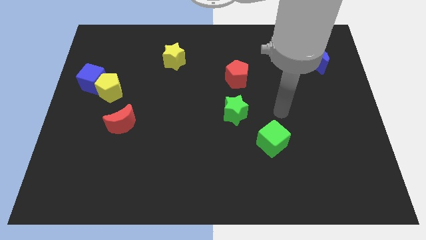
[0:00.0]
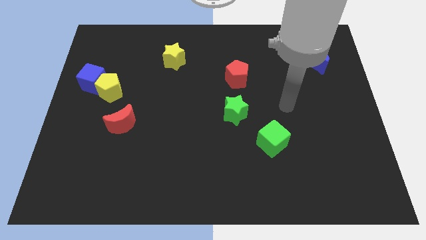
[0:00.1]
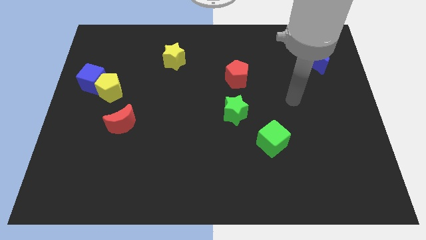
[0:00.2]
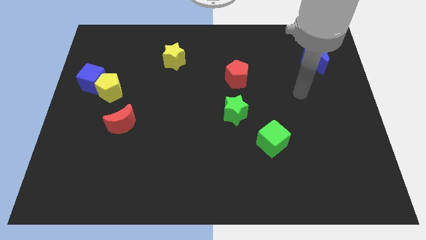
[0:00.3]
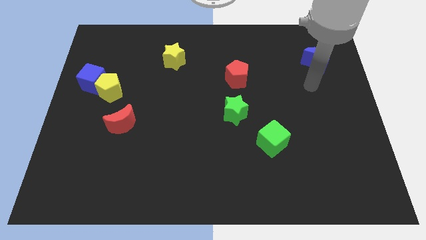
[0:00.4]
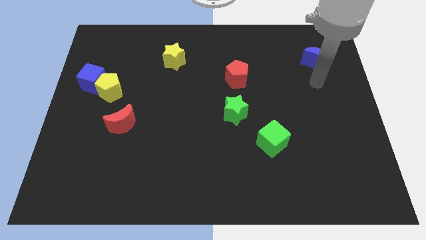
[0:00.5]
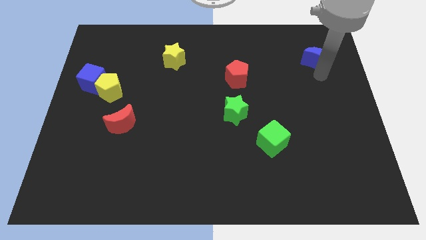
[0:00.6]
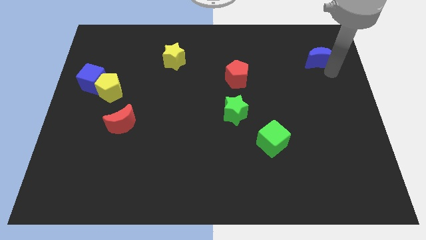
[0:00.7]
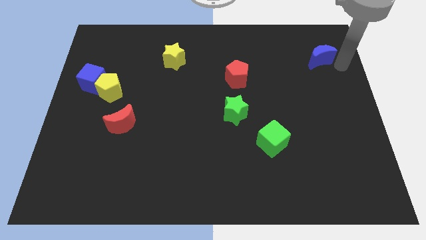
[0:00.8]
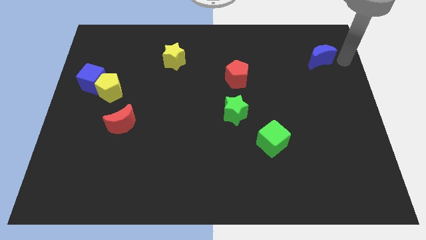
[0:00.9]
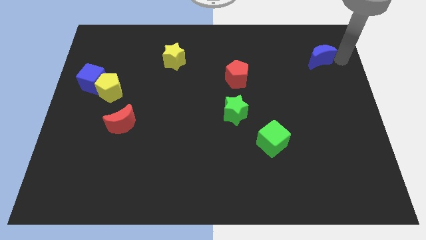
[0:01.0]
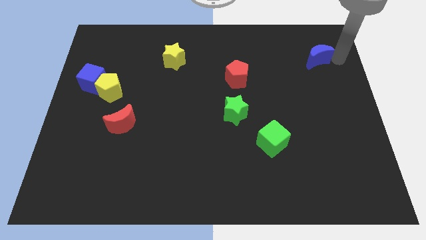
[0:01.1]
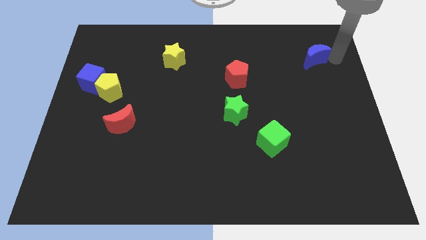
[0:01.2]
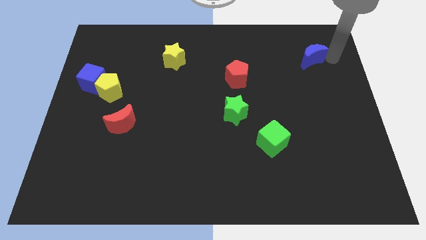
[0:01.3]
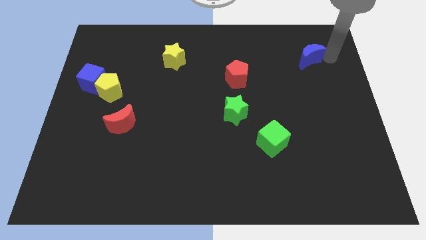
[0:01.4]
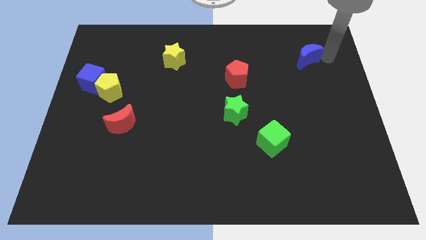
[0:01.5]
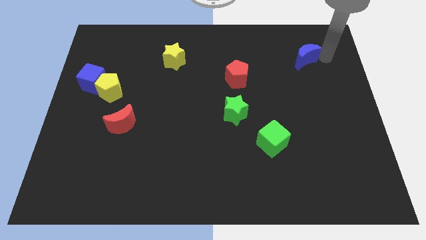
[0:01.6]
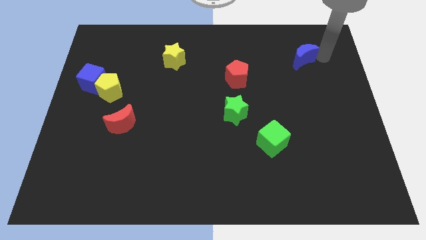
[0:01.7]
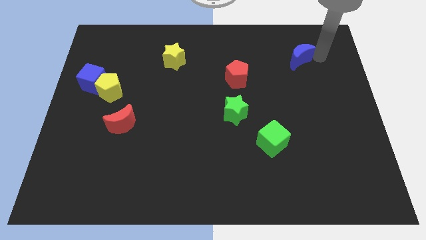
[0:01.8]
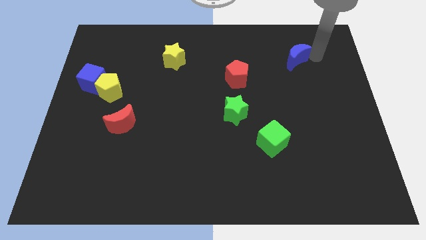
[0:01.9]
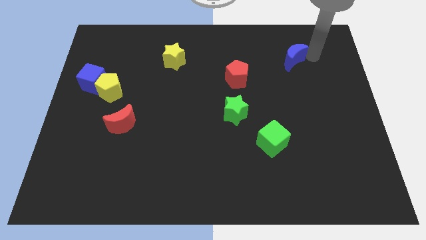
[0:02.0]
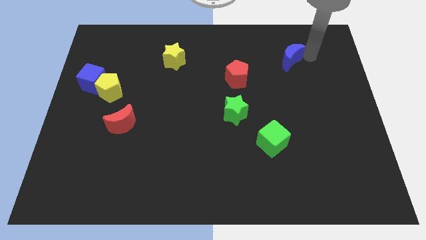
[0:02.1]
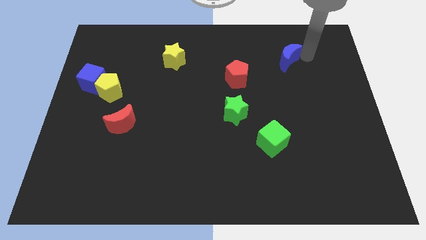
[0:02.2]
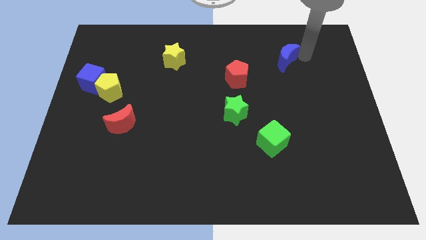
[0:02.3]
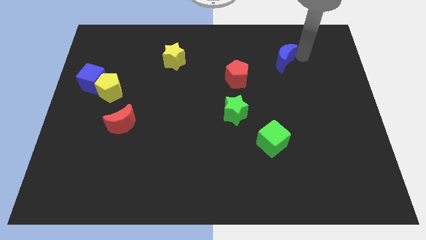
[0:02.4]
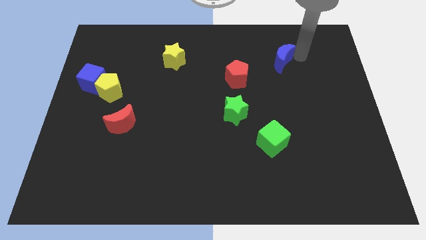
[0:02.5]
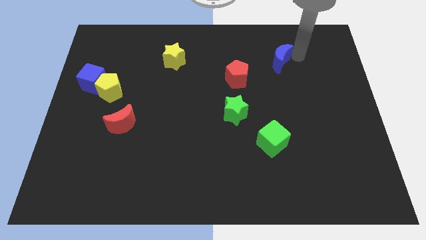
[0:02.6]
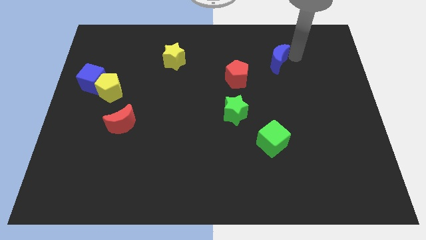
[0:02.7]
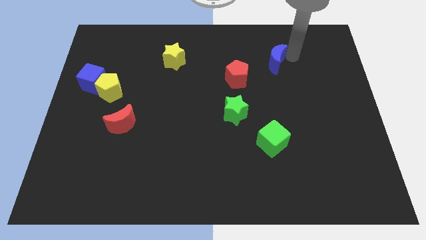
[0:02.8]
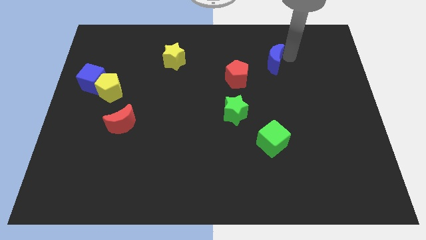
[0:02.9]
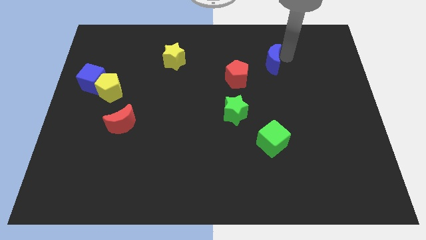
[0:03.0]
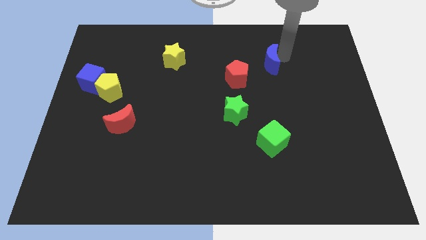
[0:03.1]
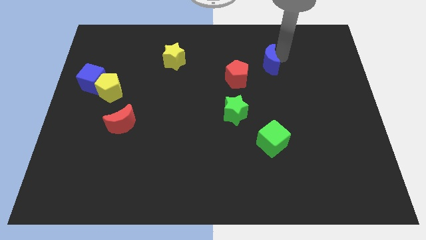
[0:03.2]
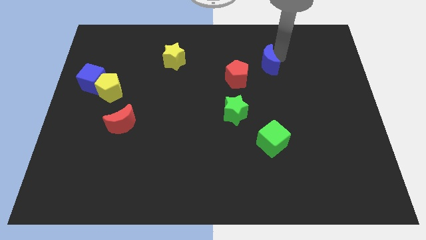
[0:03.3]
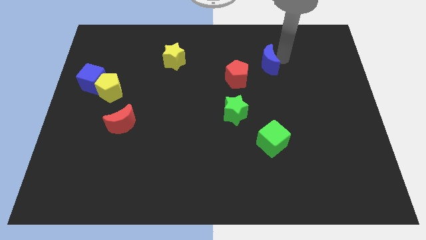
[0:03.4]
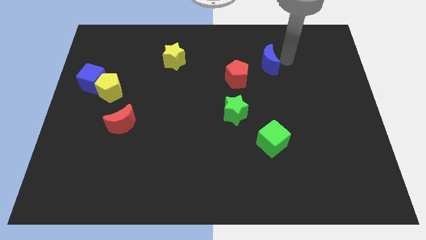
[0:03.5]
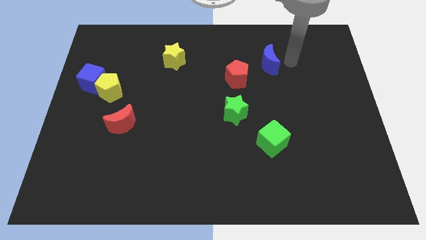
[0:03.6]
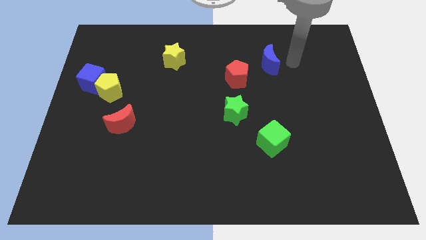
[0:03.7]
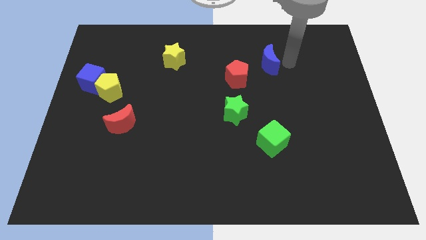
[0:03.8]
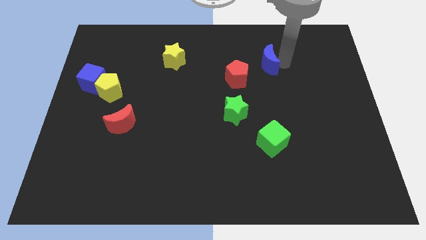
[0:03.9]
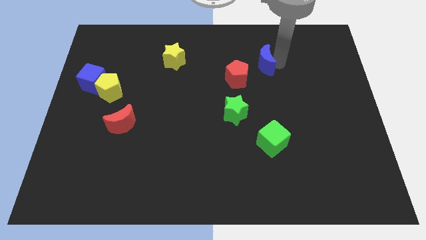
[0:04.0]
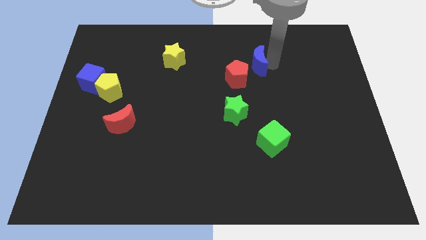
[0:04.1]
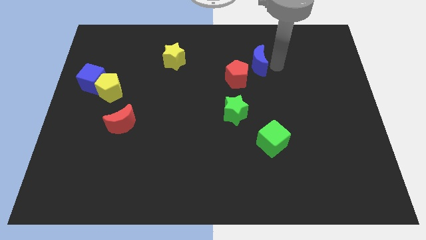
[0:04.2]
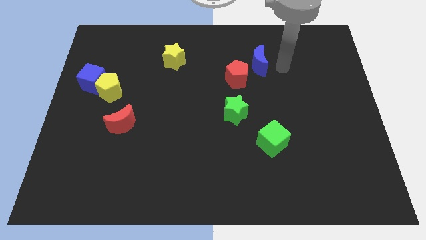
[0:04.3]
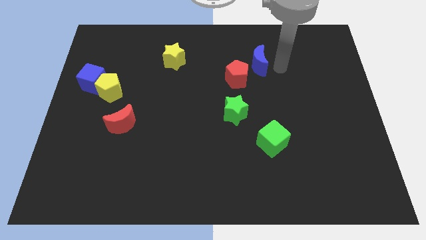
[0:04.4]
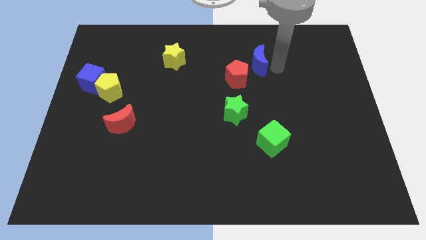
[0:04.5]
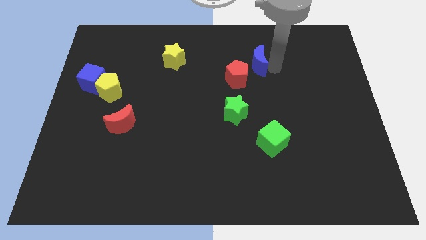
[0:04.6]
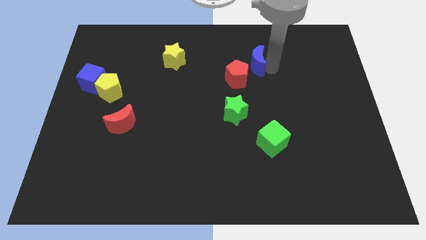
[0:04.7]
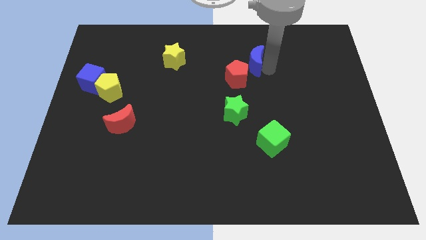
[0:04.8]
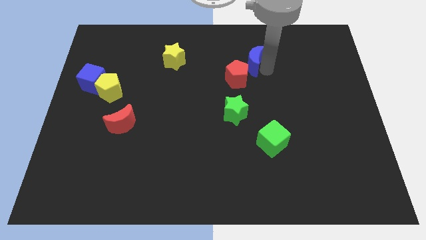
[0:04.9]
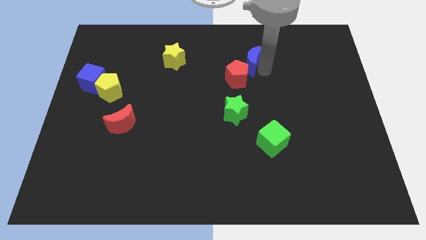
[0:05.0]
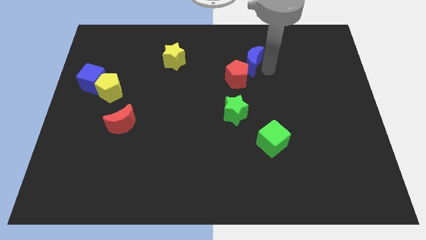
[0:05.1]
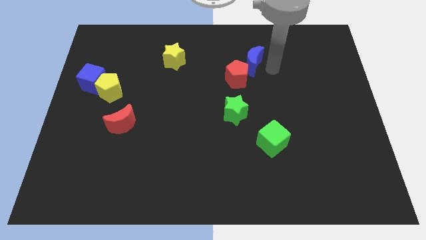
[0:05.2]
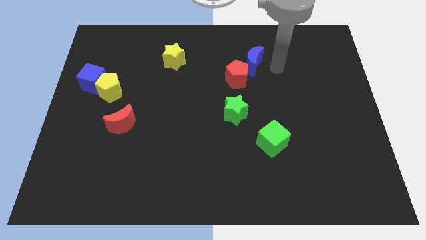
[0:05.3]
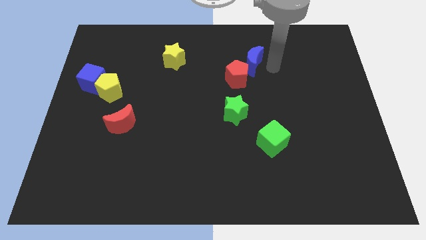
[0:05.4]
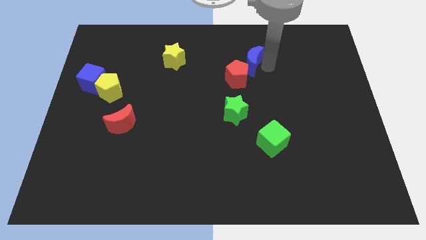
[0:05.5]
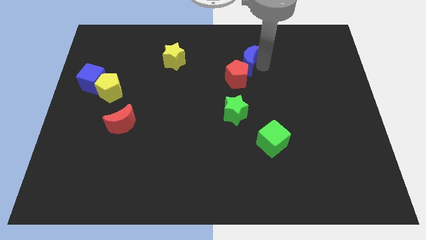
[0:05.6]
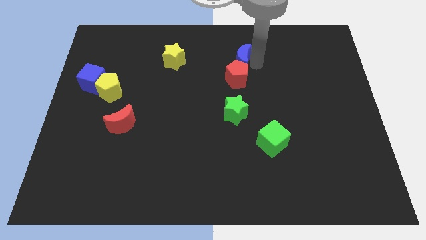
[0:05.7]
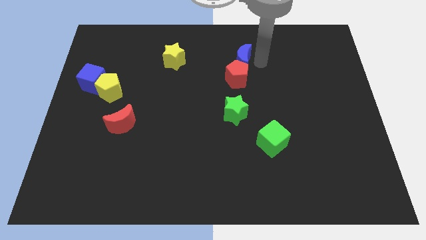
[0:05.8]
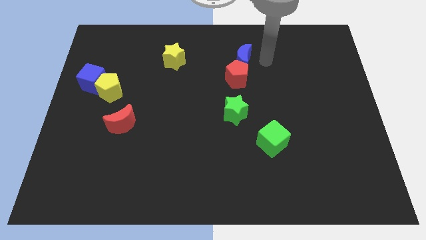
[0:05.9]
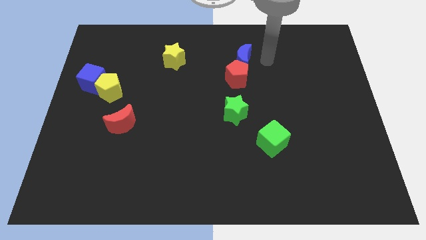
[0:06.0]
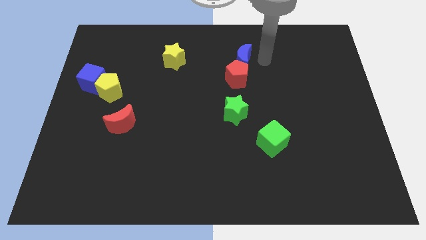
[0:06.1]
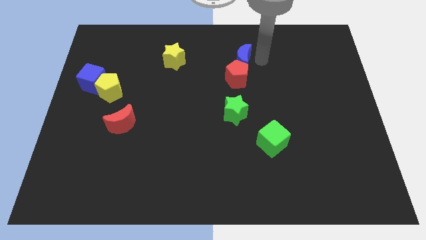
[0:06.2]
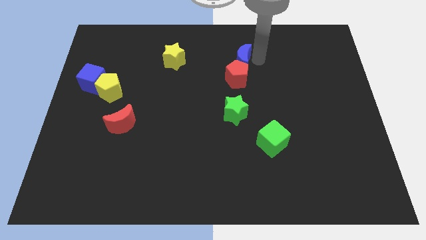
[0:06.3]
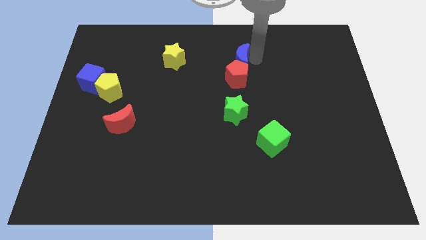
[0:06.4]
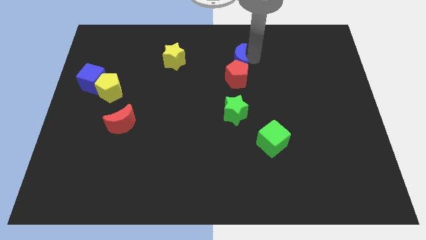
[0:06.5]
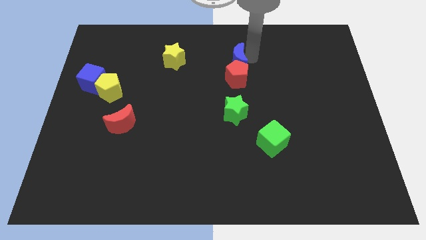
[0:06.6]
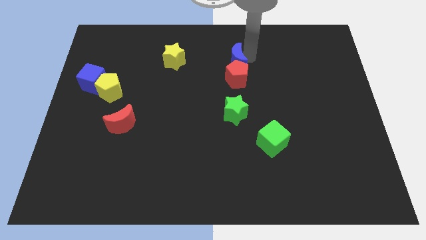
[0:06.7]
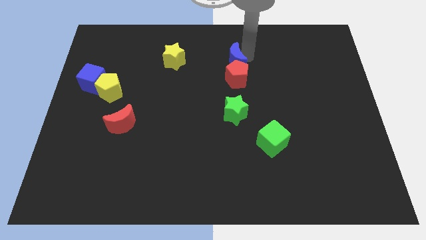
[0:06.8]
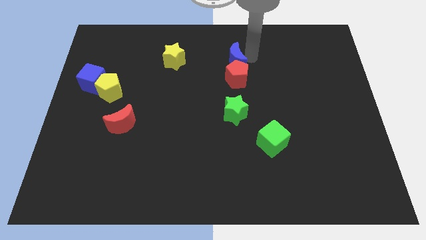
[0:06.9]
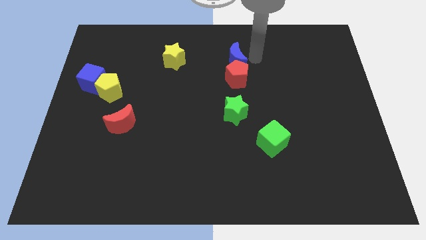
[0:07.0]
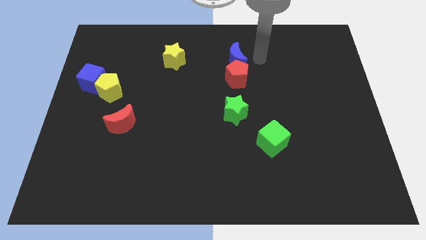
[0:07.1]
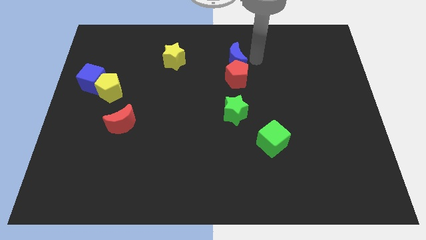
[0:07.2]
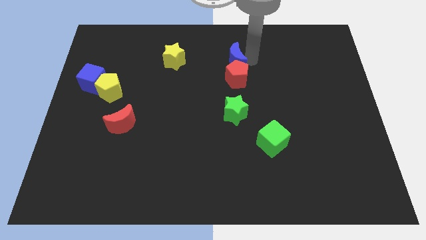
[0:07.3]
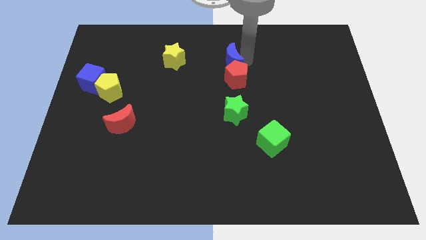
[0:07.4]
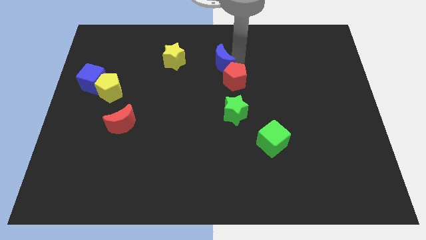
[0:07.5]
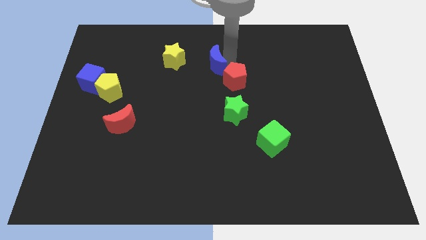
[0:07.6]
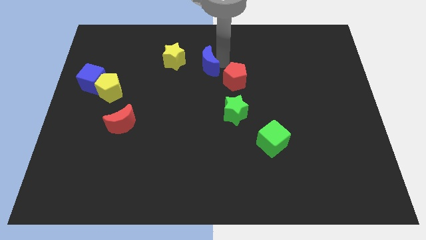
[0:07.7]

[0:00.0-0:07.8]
put the blue moon diagonally down and to the right of the yellow star
